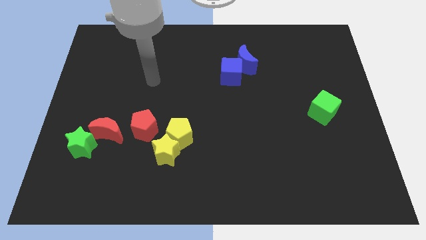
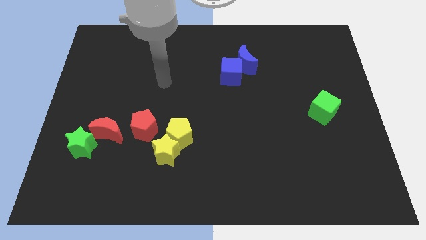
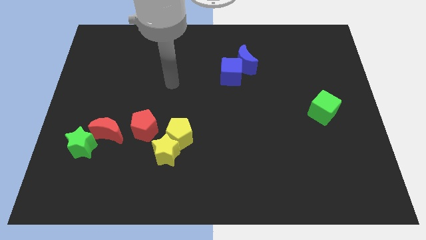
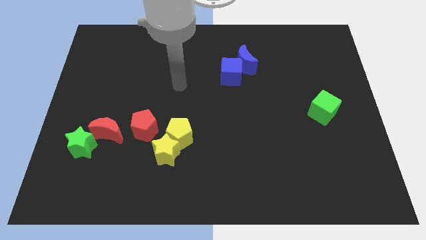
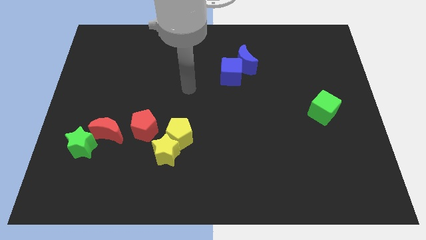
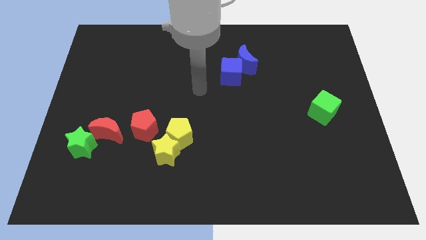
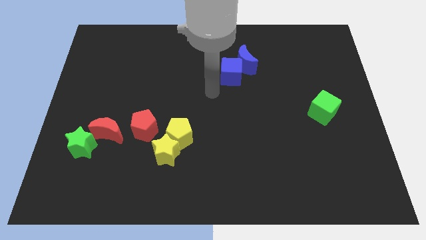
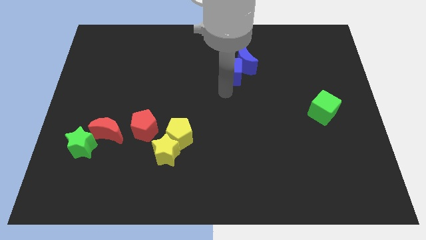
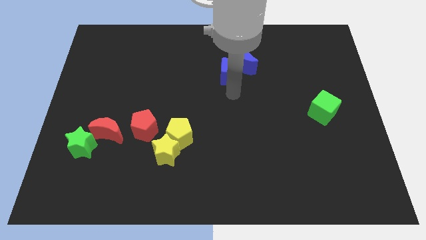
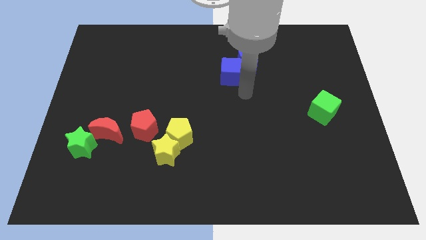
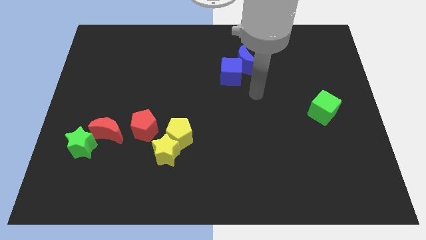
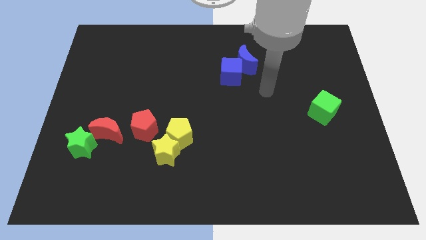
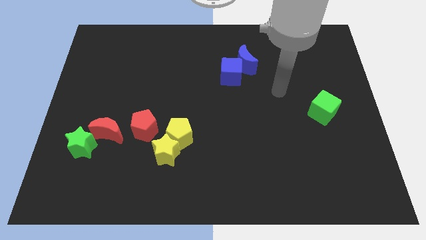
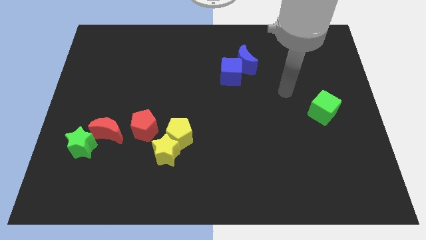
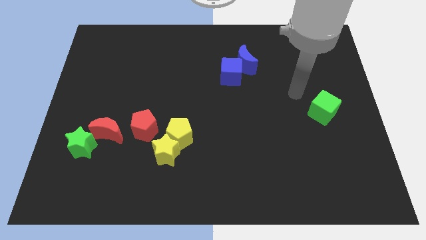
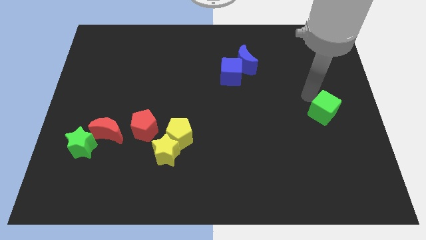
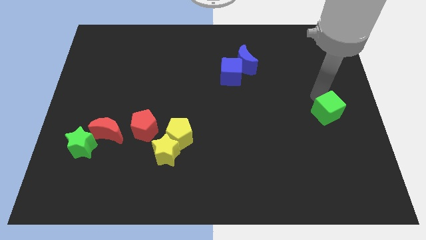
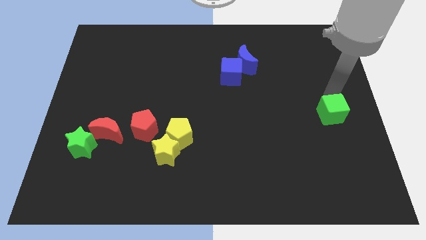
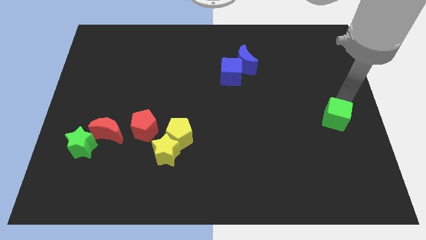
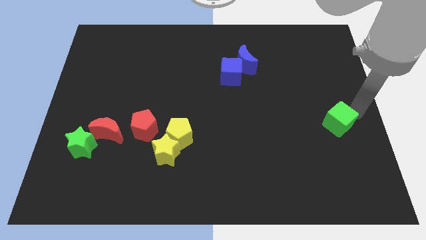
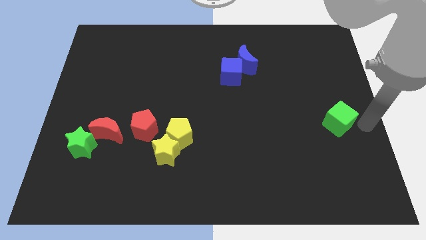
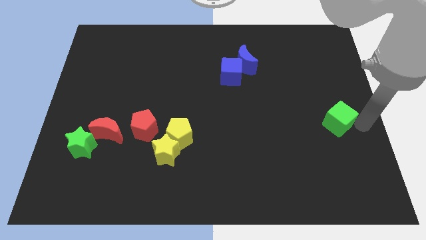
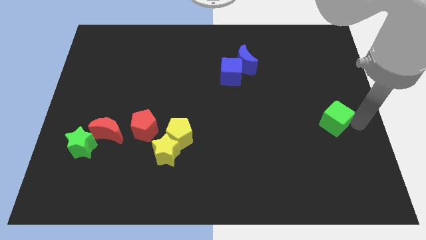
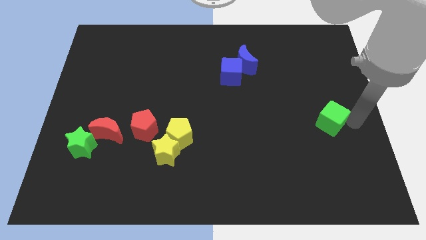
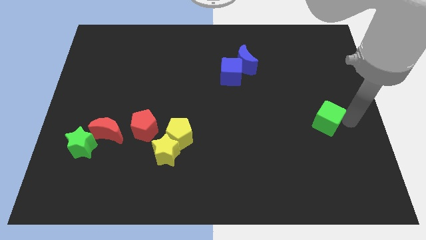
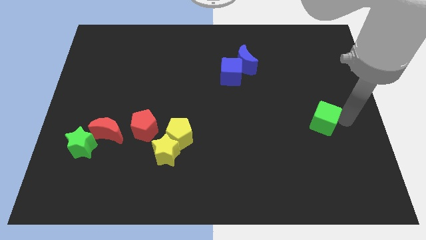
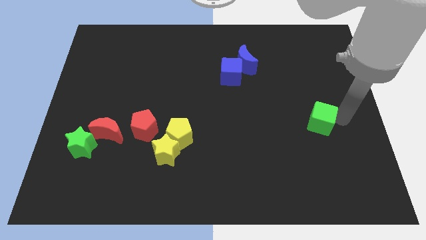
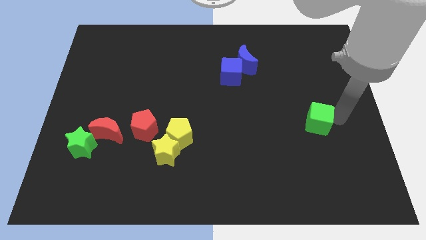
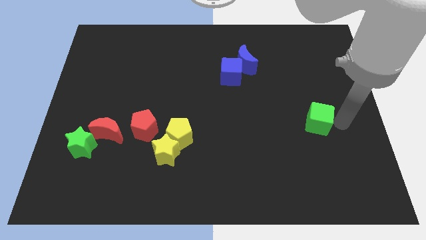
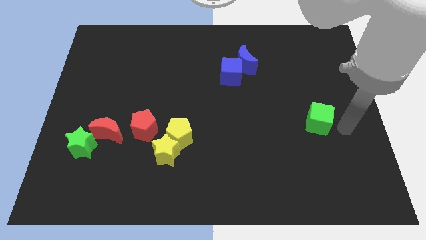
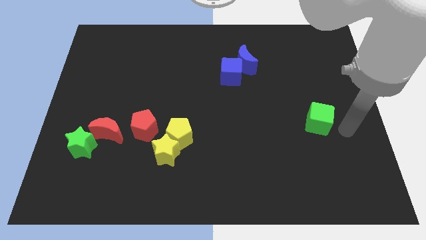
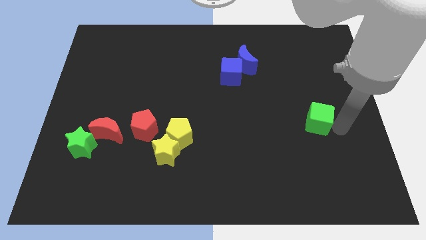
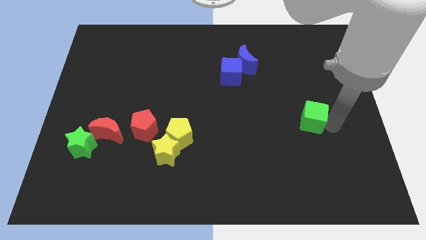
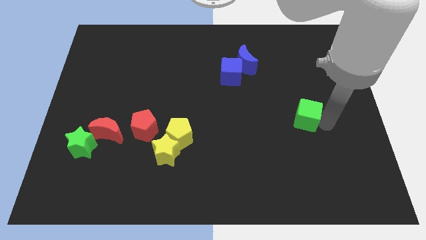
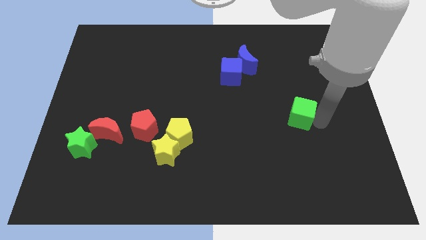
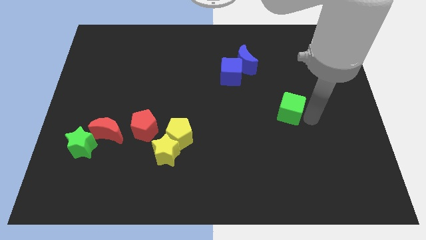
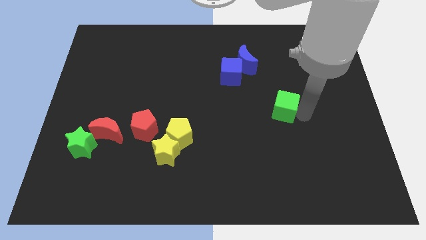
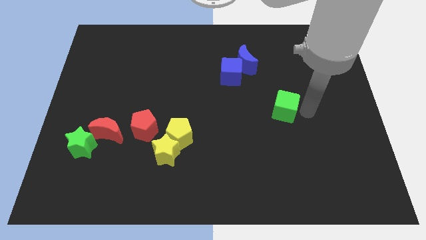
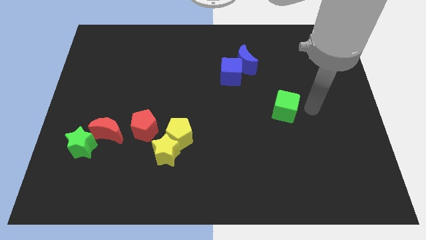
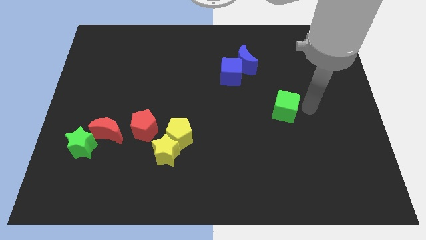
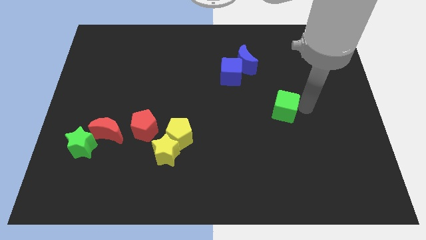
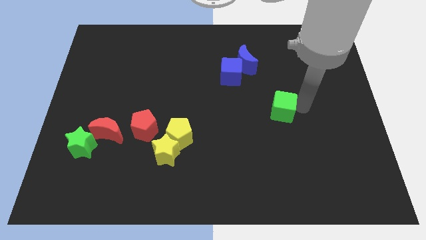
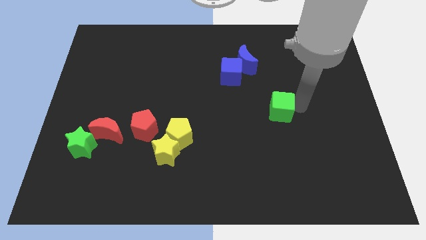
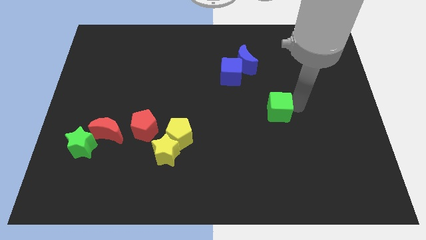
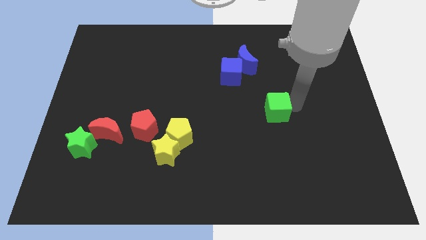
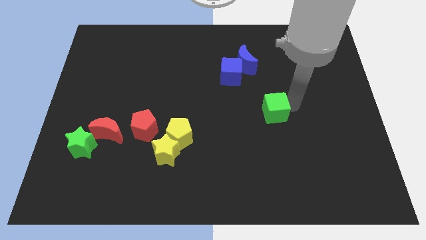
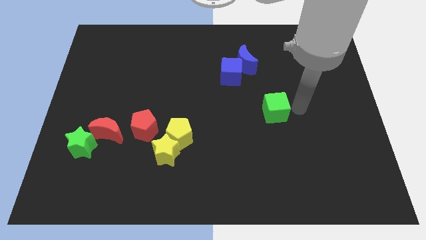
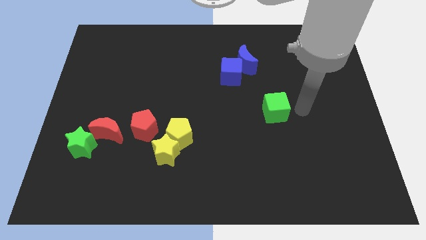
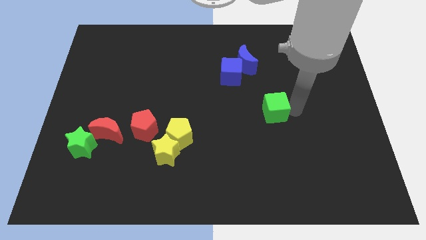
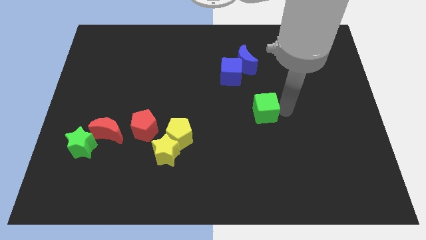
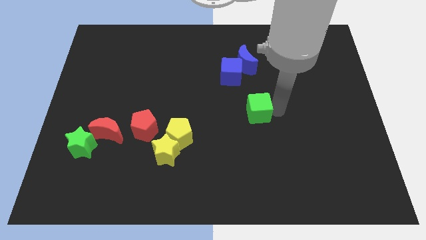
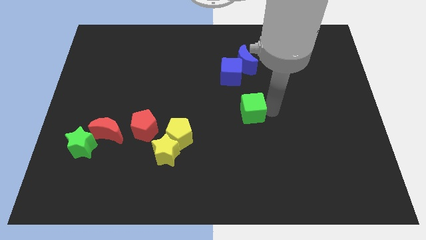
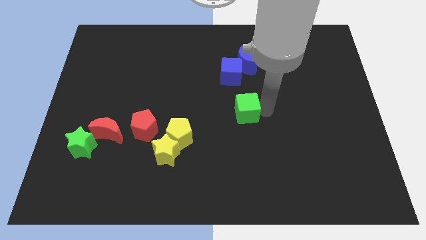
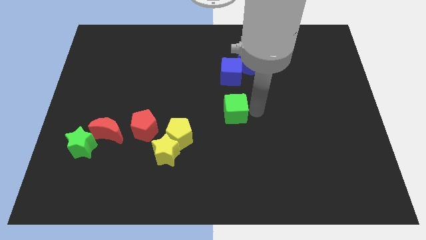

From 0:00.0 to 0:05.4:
push the green cube to the left

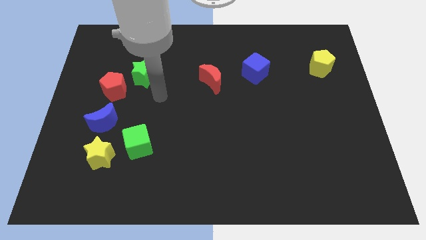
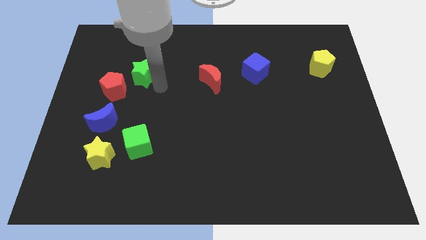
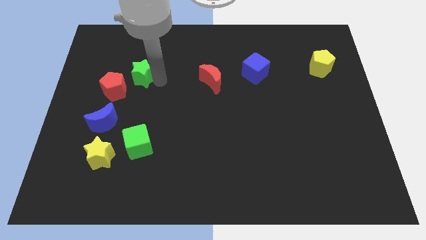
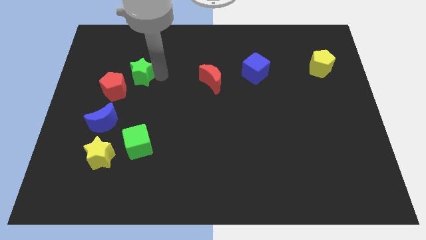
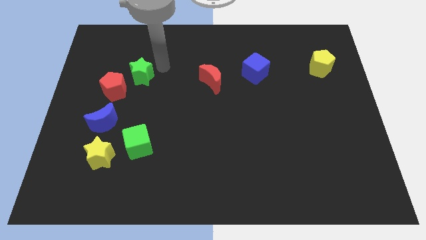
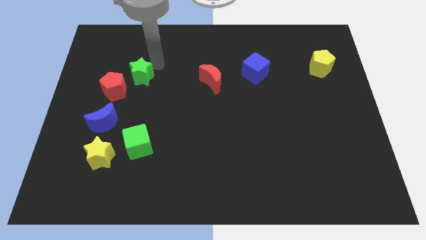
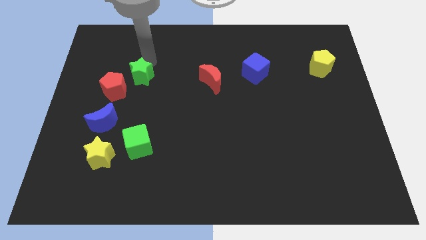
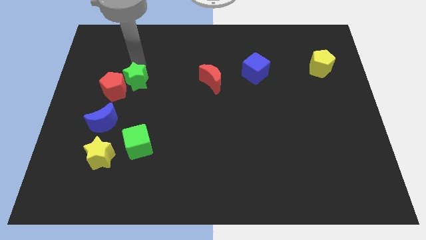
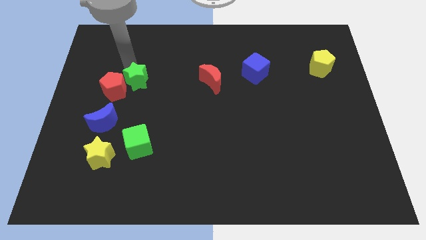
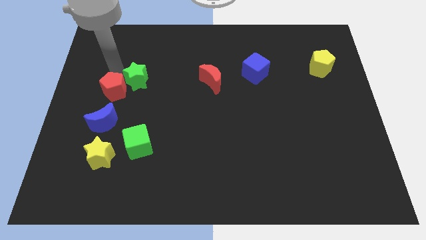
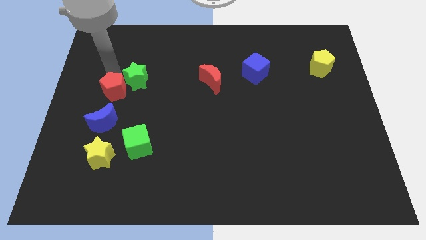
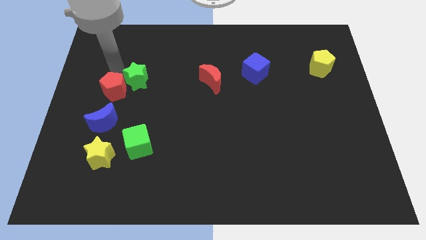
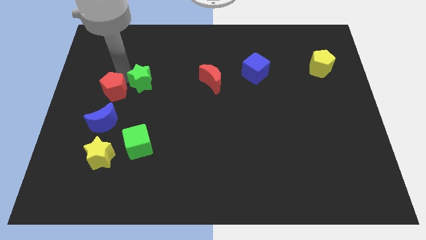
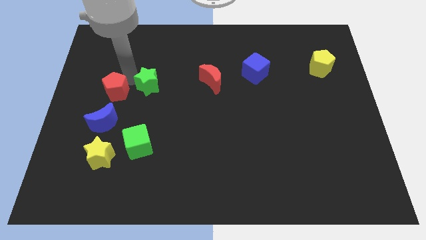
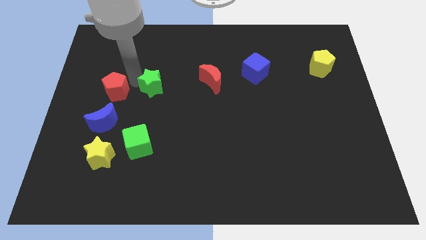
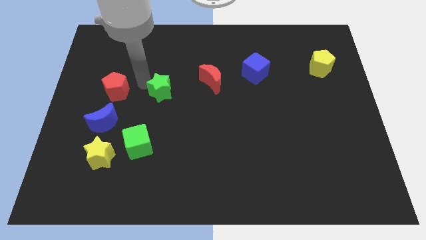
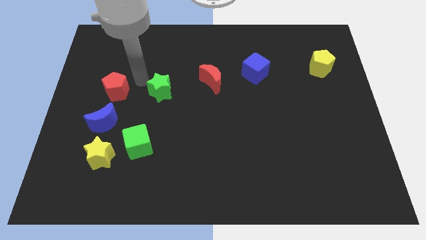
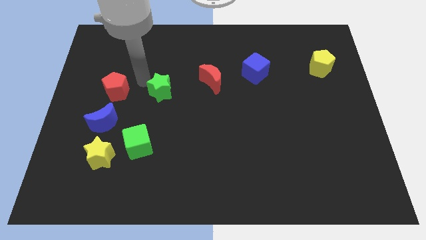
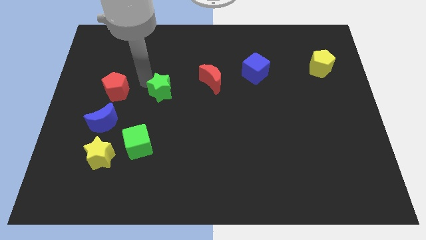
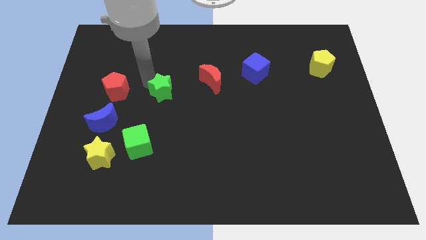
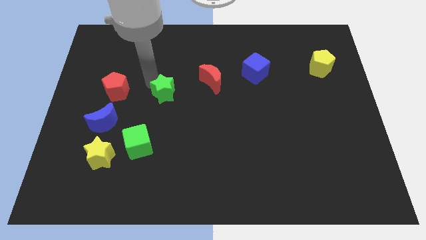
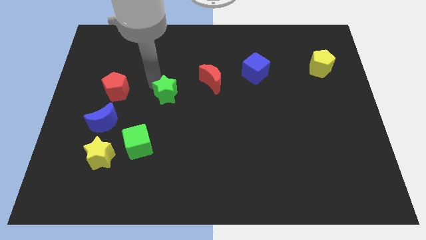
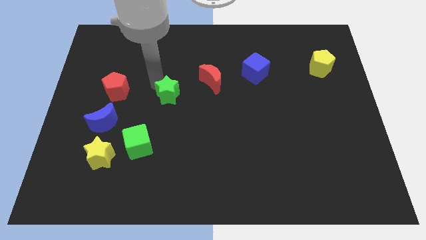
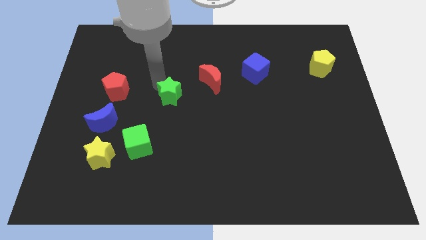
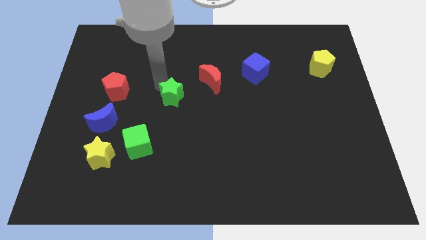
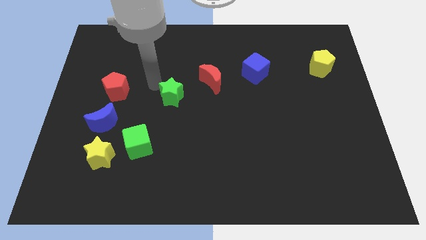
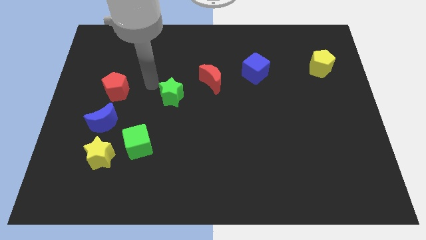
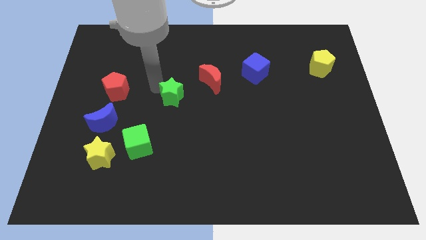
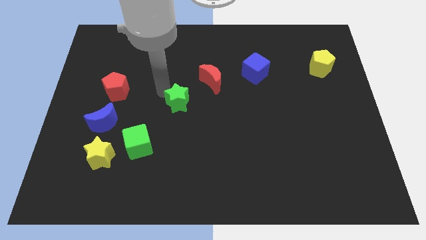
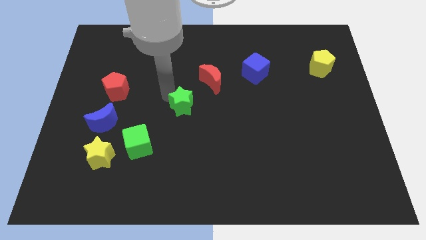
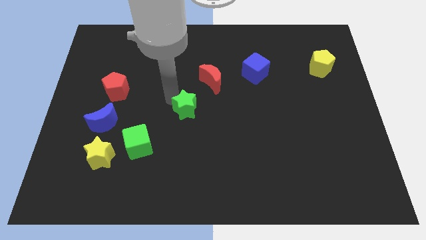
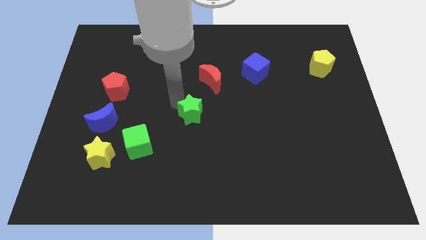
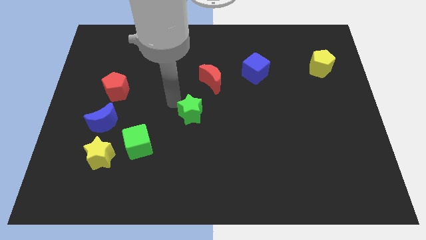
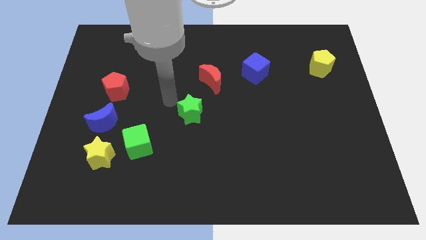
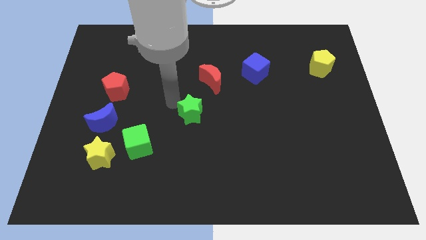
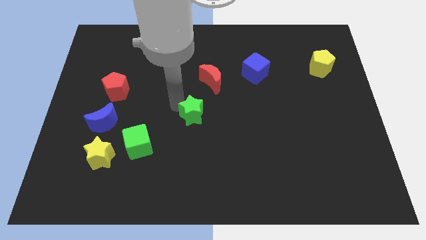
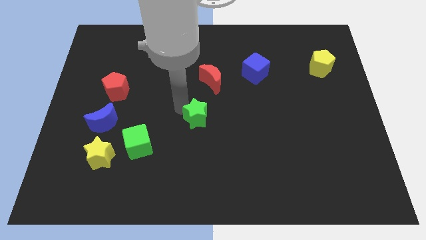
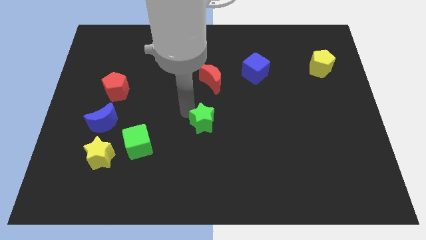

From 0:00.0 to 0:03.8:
slide the green star diagonally downwards and right
